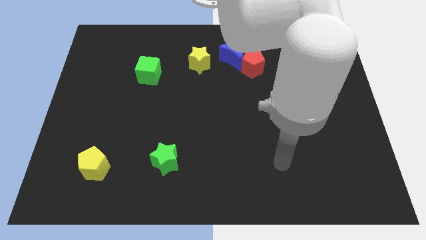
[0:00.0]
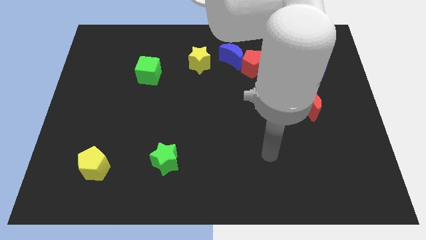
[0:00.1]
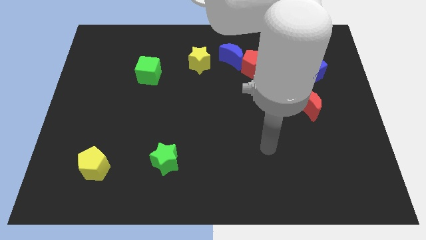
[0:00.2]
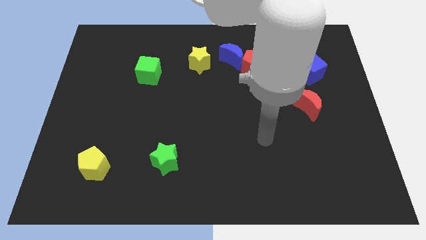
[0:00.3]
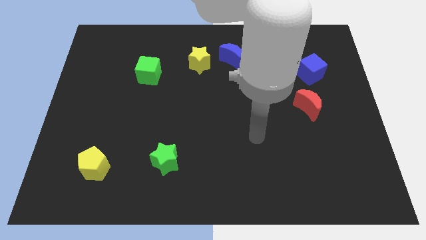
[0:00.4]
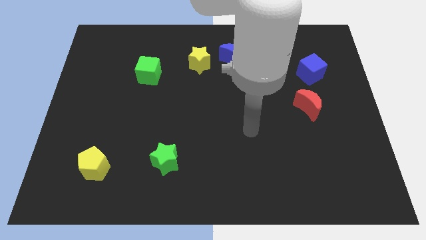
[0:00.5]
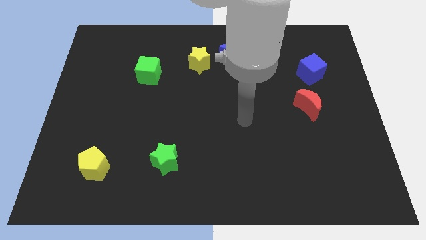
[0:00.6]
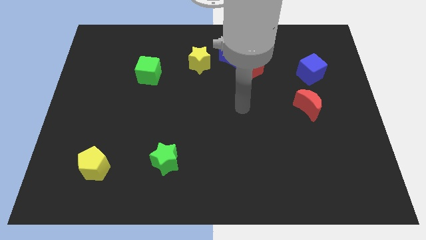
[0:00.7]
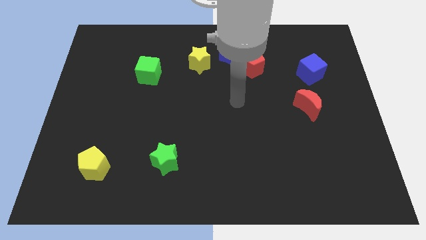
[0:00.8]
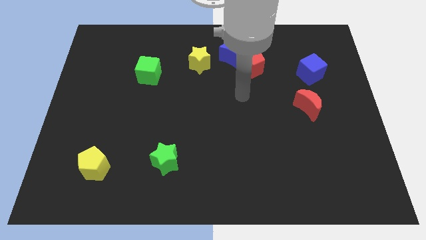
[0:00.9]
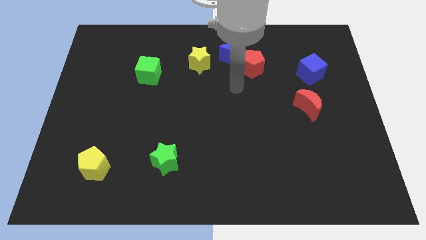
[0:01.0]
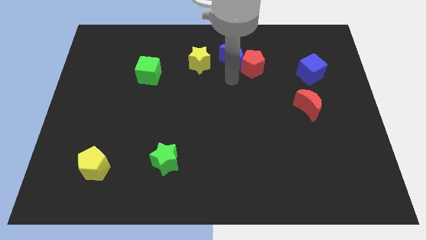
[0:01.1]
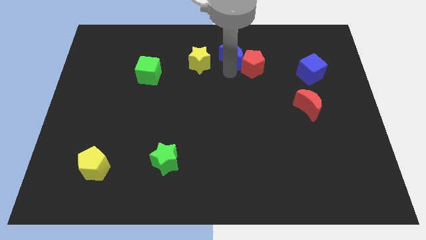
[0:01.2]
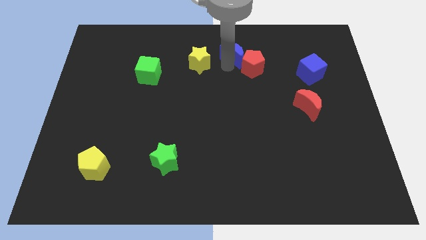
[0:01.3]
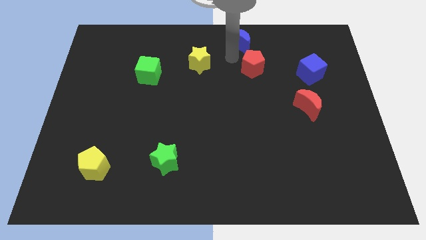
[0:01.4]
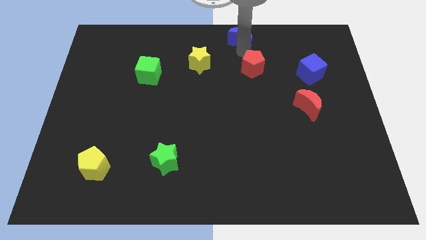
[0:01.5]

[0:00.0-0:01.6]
move the red pentagon away from the blue moon

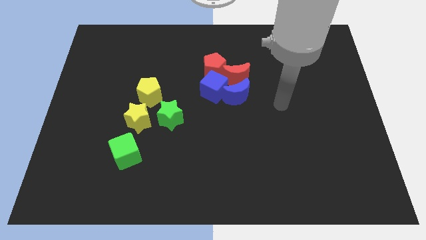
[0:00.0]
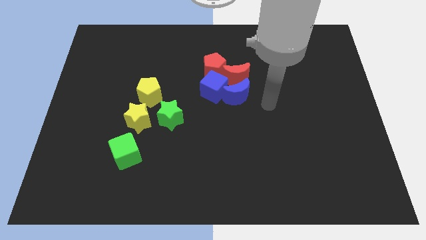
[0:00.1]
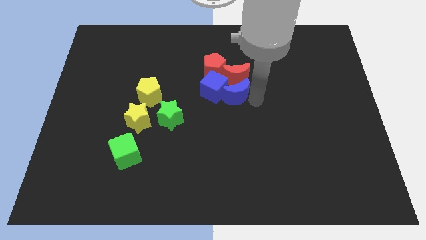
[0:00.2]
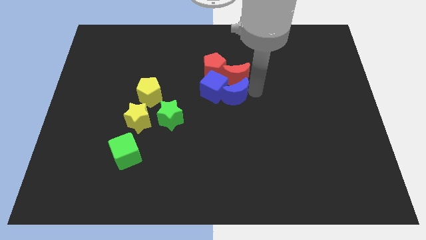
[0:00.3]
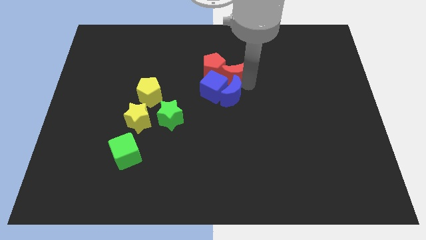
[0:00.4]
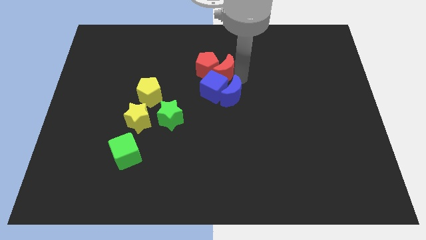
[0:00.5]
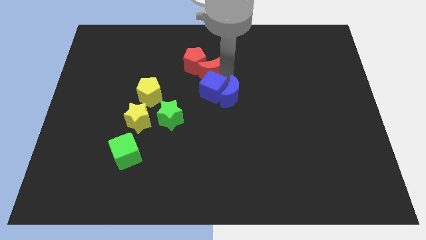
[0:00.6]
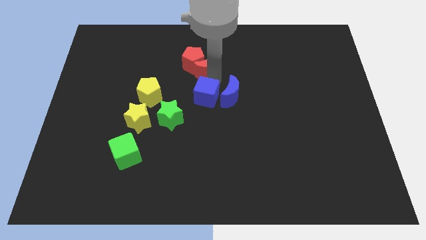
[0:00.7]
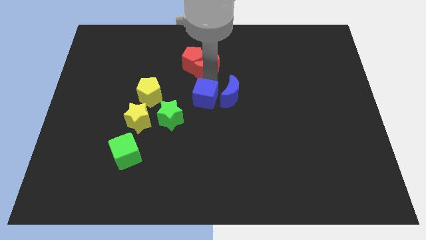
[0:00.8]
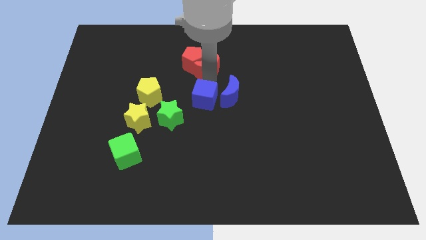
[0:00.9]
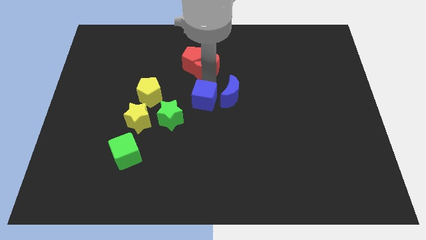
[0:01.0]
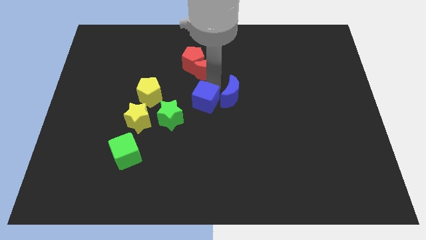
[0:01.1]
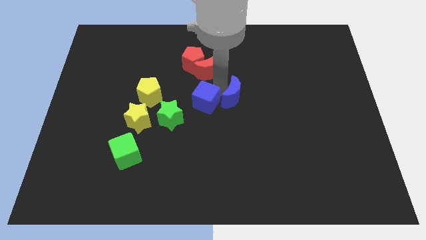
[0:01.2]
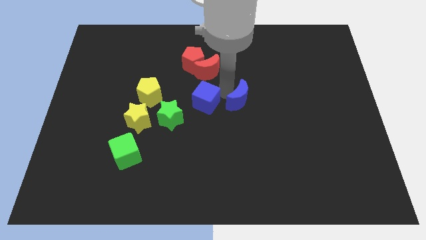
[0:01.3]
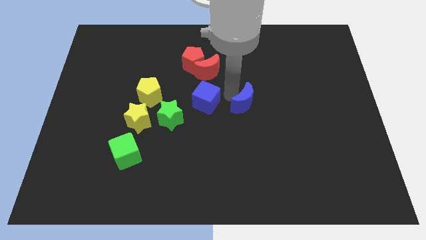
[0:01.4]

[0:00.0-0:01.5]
pull the blue moon apart from the red moon and blue cube

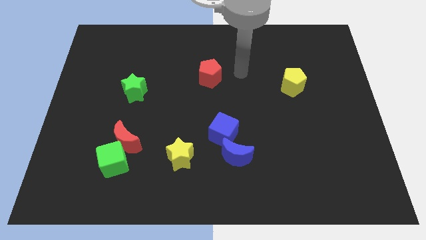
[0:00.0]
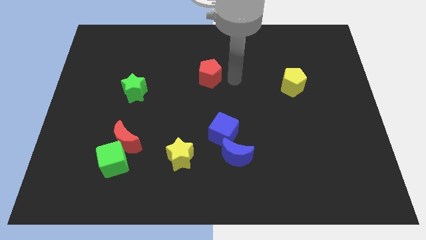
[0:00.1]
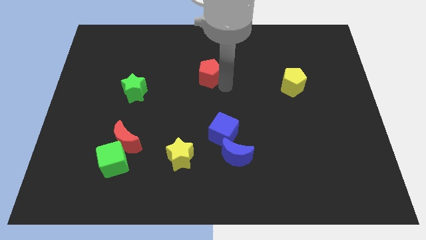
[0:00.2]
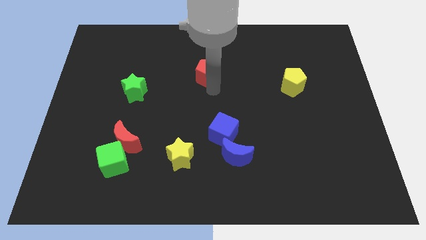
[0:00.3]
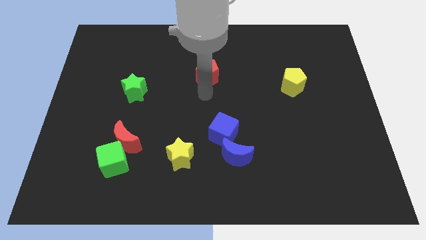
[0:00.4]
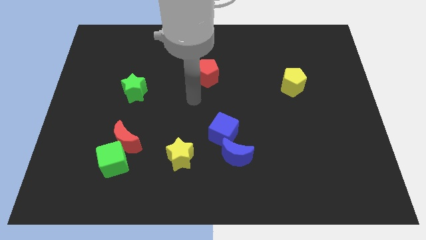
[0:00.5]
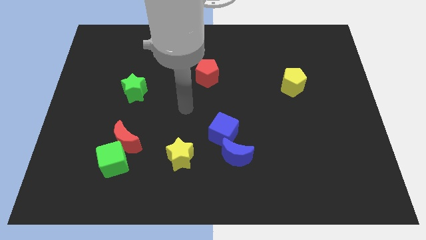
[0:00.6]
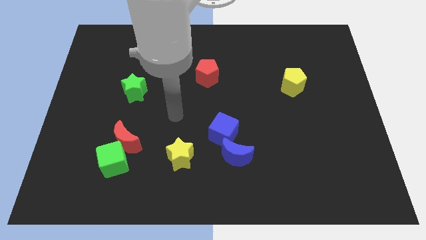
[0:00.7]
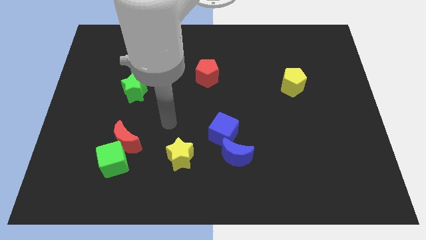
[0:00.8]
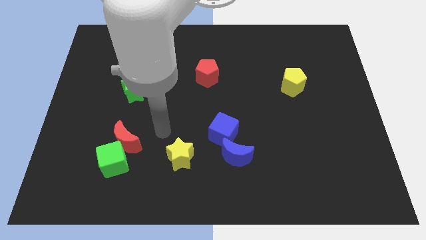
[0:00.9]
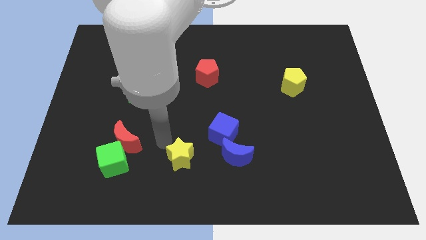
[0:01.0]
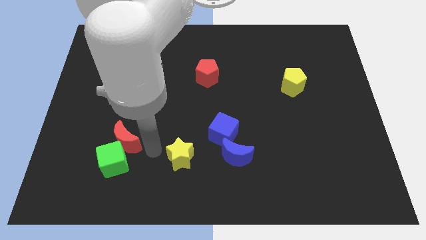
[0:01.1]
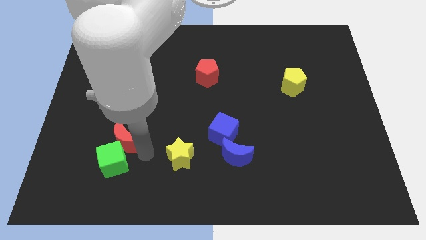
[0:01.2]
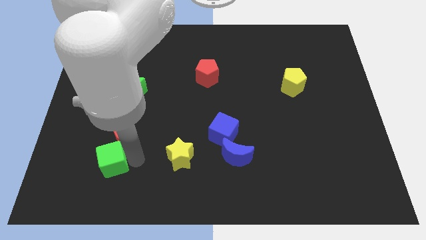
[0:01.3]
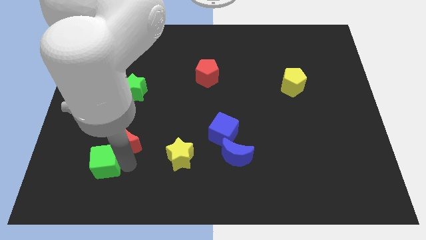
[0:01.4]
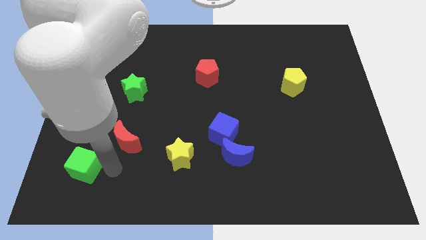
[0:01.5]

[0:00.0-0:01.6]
separate the red moon from the green cube

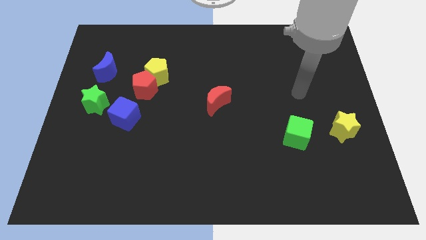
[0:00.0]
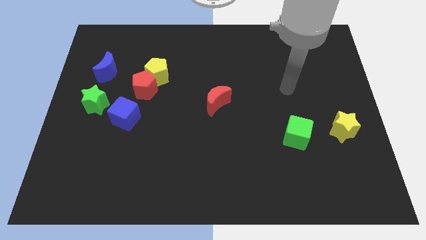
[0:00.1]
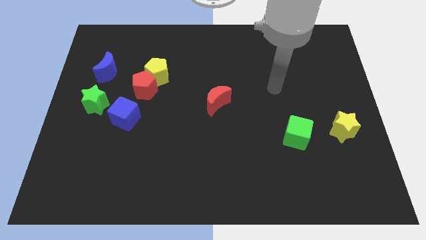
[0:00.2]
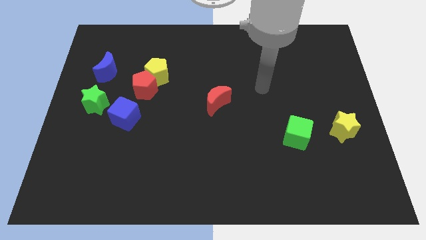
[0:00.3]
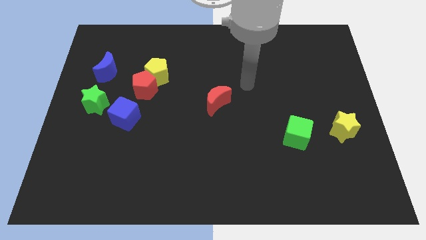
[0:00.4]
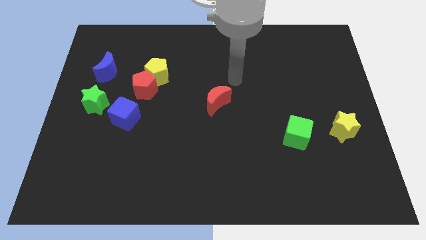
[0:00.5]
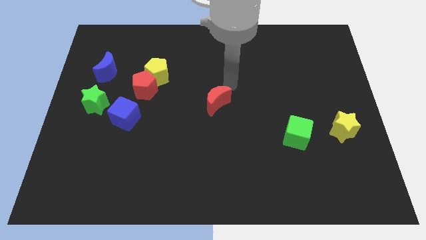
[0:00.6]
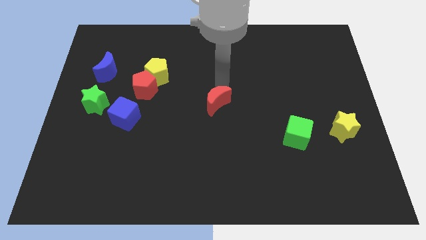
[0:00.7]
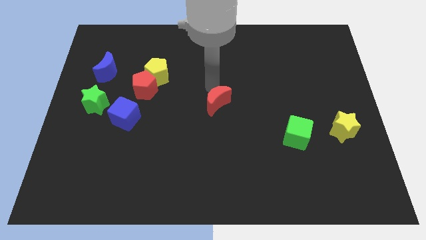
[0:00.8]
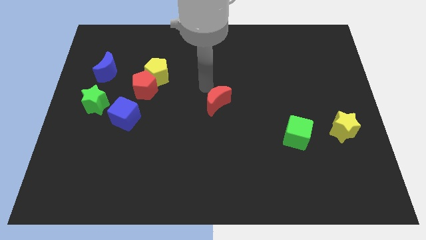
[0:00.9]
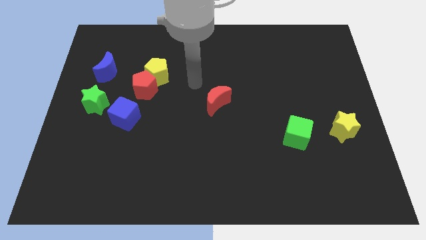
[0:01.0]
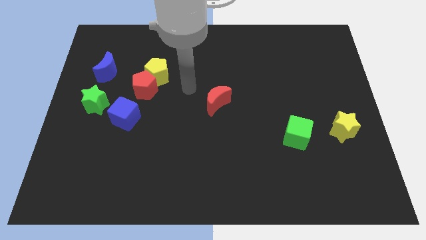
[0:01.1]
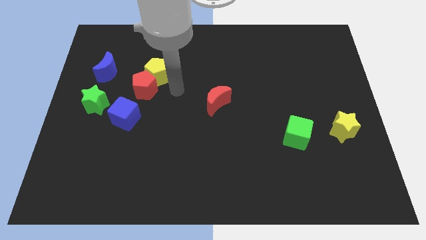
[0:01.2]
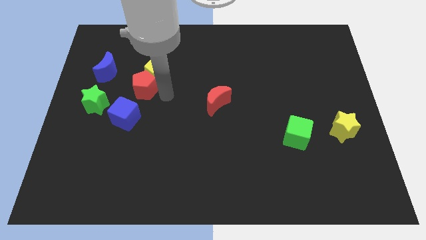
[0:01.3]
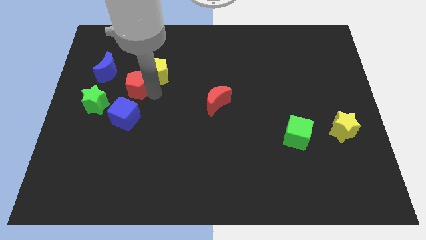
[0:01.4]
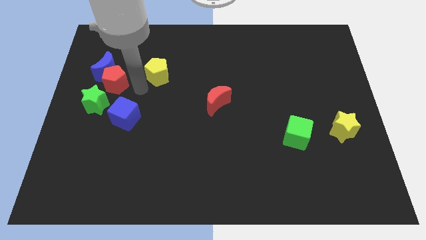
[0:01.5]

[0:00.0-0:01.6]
move the yellow pentagon away from the red pentagon

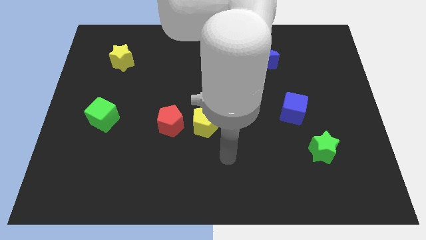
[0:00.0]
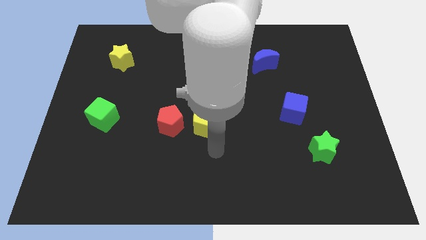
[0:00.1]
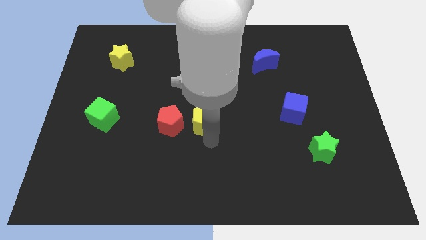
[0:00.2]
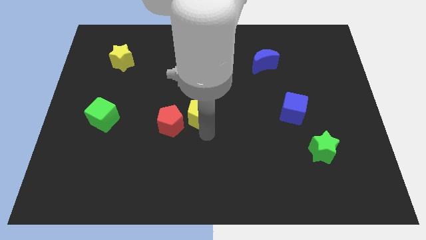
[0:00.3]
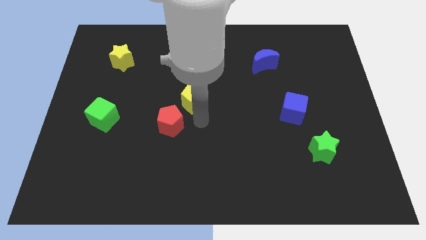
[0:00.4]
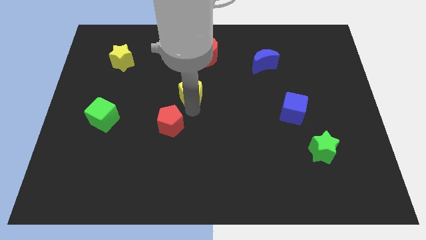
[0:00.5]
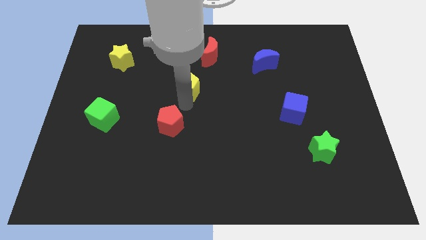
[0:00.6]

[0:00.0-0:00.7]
separate the red pentagon from the yellow pentagon

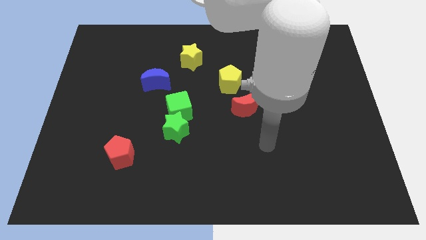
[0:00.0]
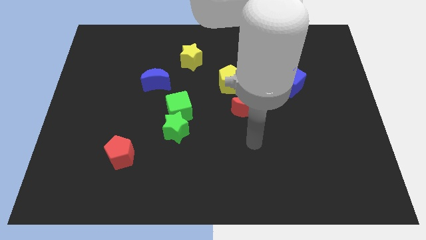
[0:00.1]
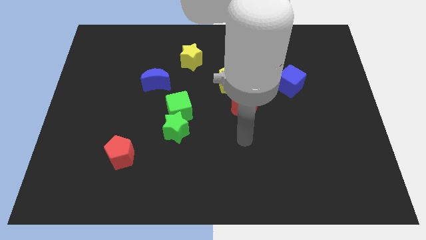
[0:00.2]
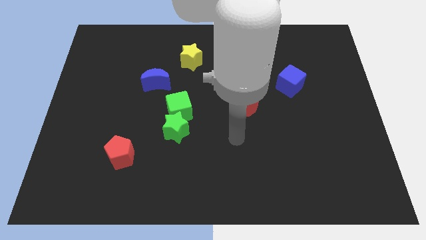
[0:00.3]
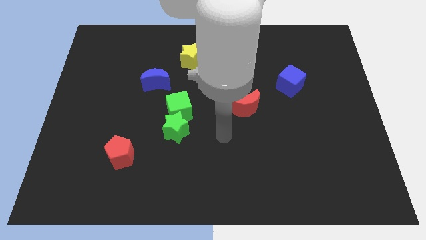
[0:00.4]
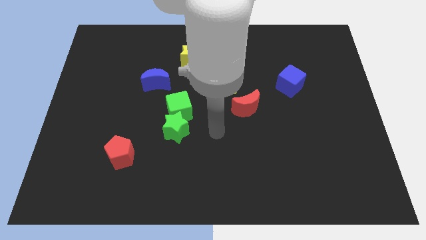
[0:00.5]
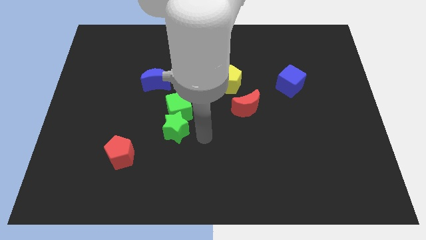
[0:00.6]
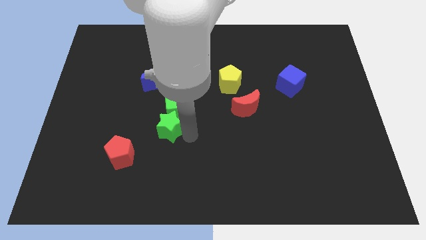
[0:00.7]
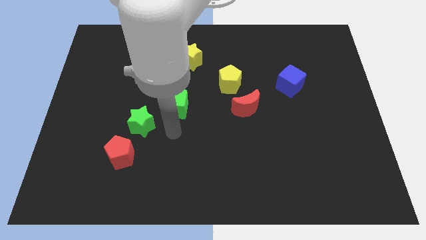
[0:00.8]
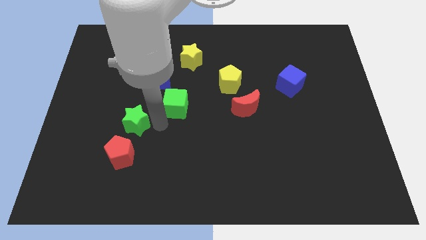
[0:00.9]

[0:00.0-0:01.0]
move the green cube away from the green star

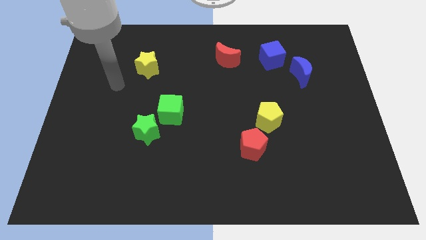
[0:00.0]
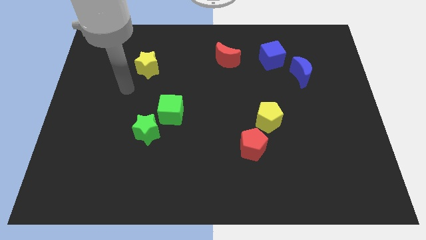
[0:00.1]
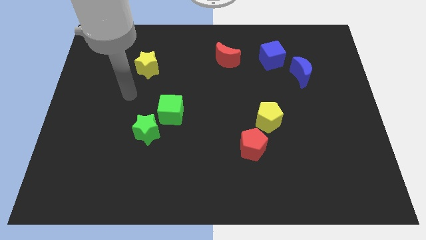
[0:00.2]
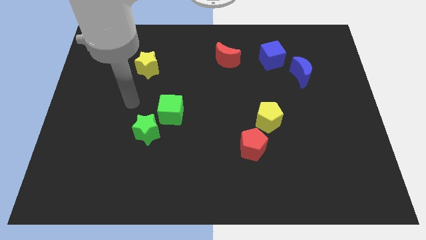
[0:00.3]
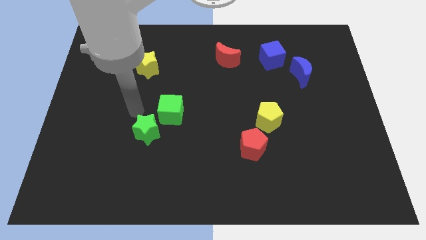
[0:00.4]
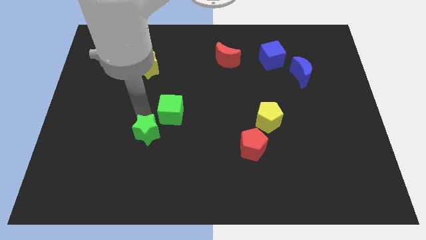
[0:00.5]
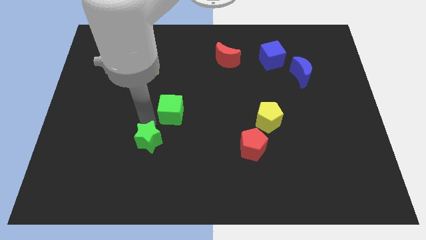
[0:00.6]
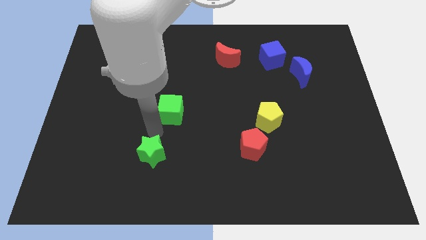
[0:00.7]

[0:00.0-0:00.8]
separate the green cube from the green star

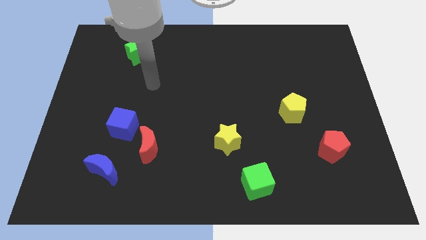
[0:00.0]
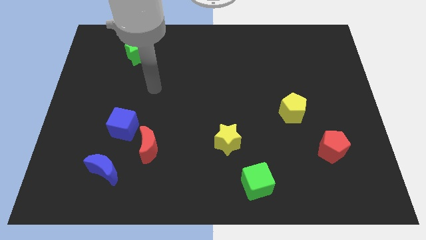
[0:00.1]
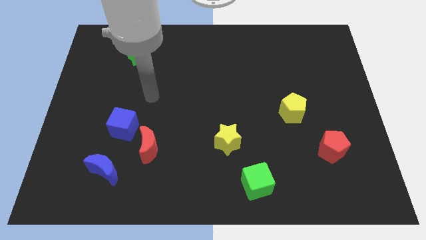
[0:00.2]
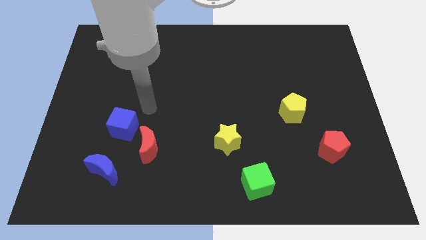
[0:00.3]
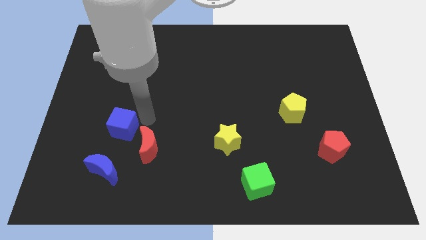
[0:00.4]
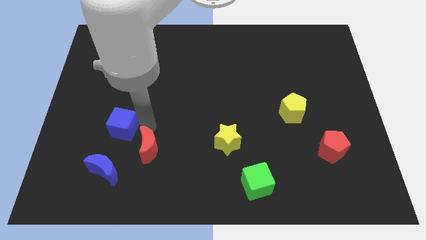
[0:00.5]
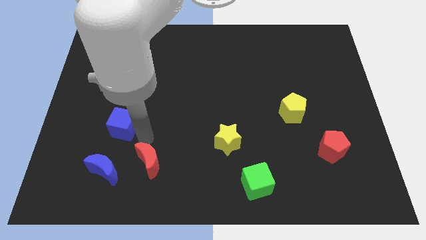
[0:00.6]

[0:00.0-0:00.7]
move the blue cube away from the red moon
